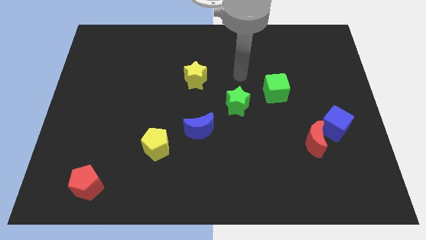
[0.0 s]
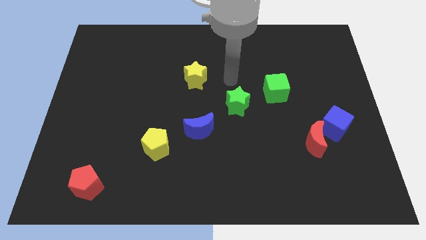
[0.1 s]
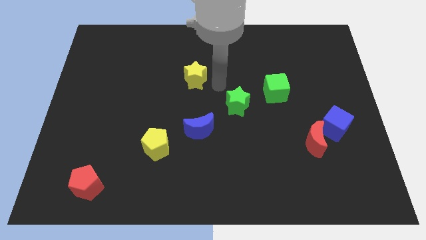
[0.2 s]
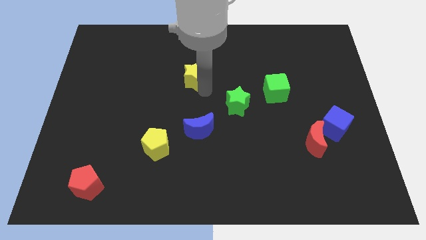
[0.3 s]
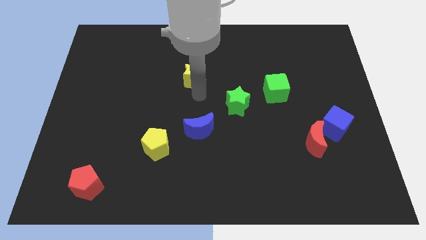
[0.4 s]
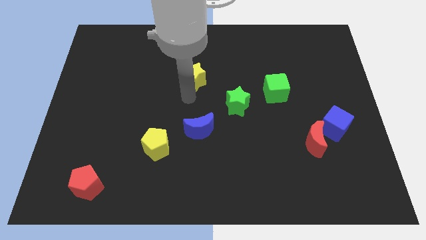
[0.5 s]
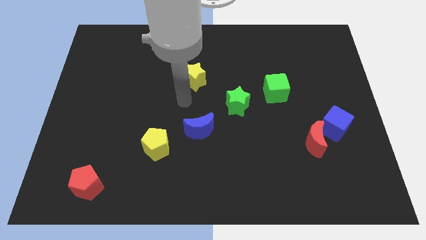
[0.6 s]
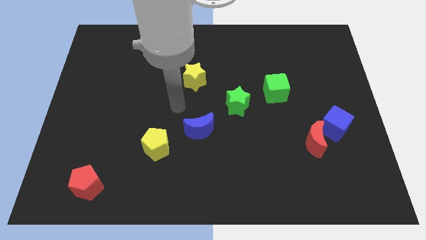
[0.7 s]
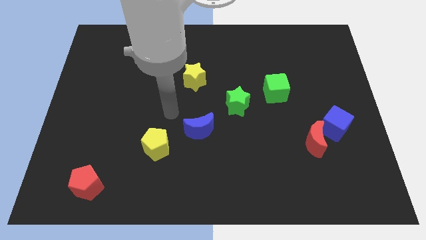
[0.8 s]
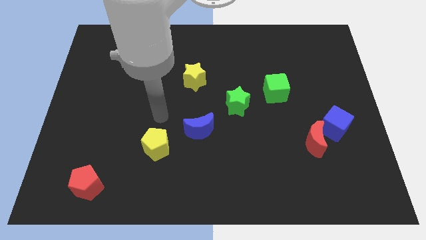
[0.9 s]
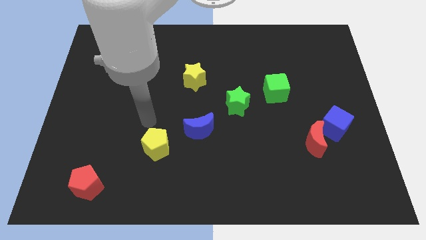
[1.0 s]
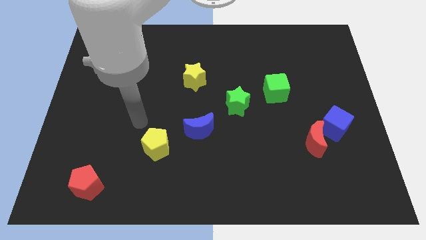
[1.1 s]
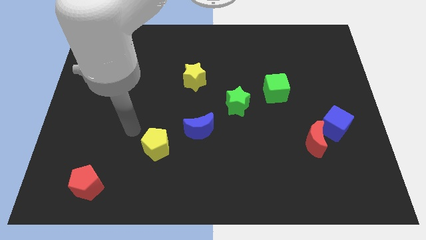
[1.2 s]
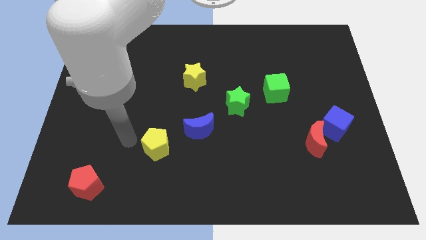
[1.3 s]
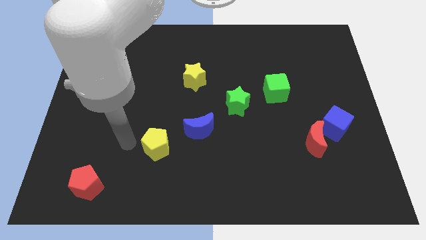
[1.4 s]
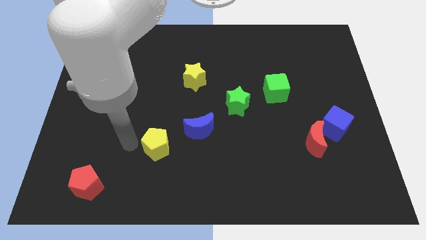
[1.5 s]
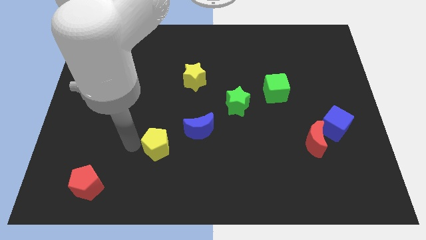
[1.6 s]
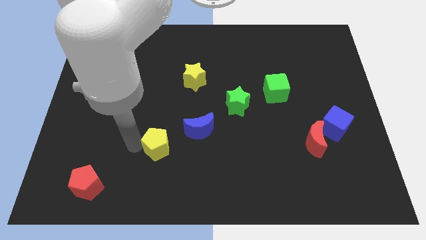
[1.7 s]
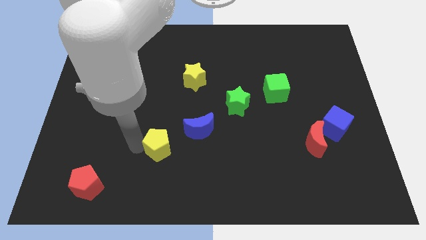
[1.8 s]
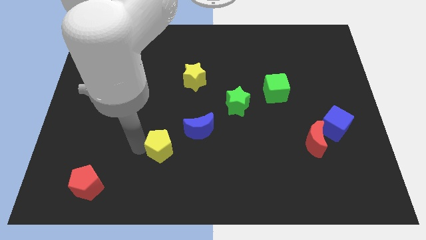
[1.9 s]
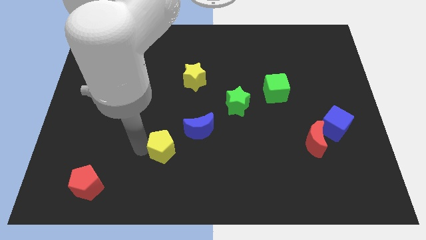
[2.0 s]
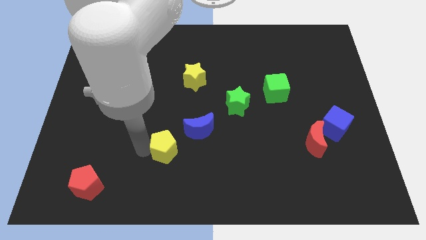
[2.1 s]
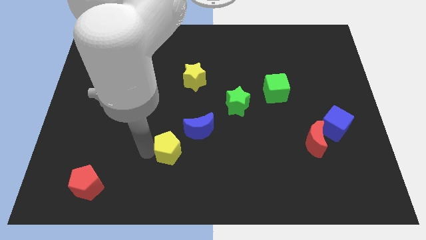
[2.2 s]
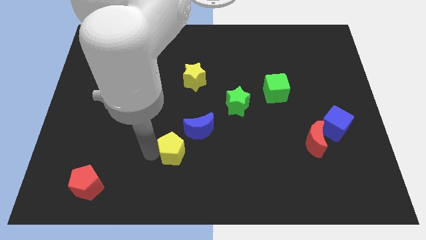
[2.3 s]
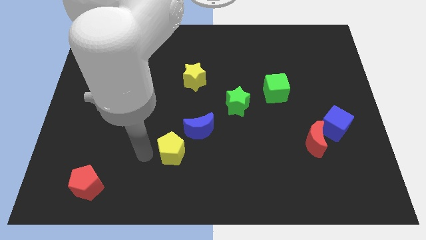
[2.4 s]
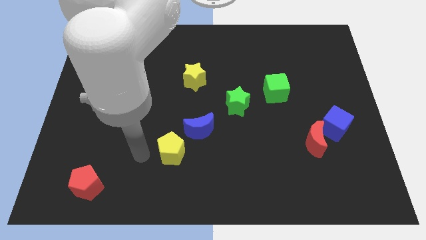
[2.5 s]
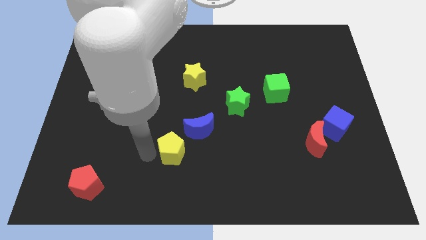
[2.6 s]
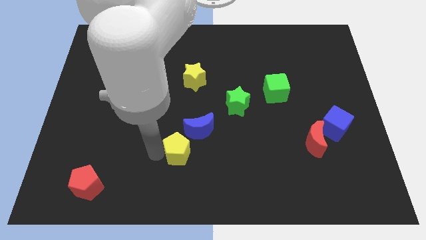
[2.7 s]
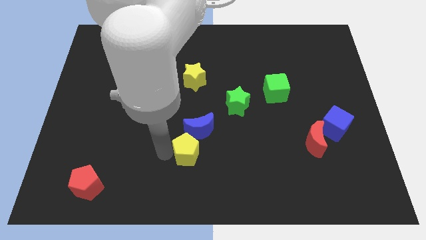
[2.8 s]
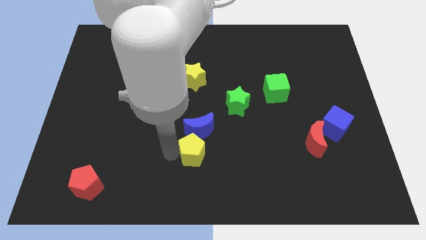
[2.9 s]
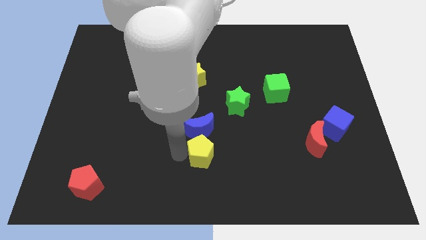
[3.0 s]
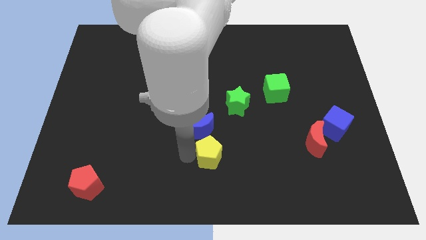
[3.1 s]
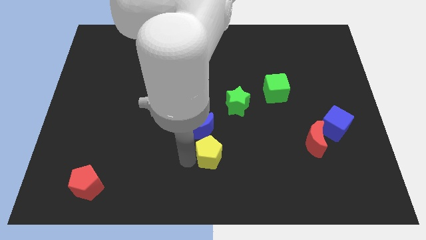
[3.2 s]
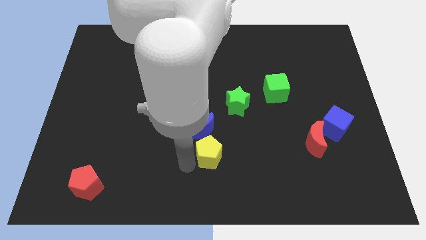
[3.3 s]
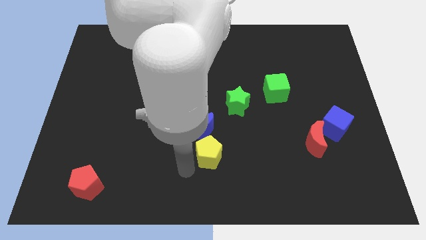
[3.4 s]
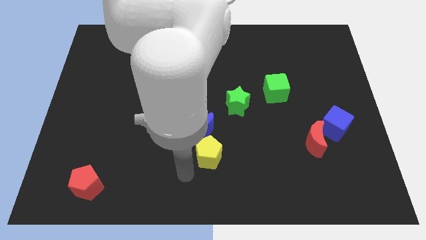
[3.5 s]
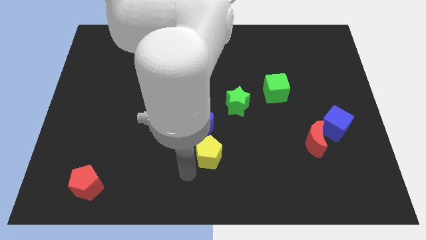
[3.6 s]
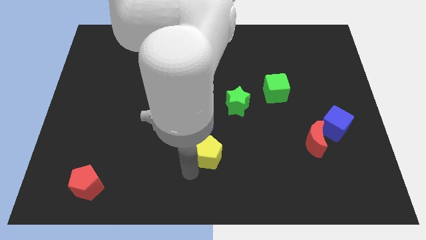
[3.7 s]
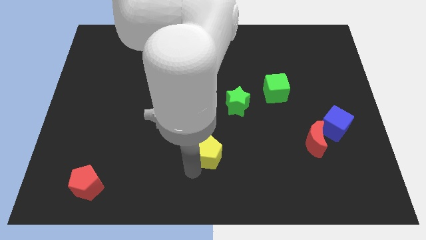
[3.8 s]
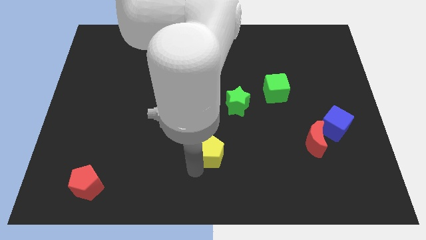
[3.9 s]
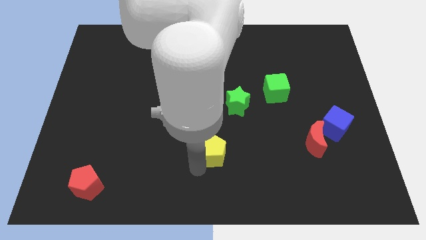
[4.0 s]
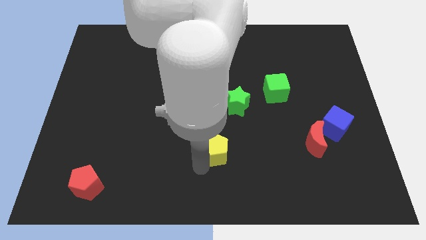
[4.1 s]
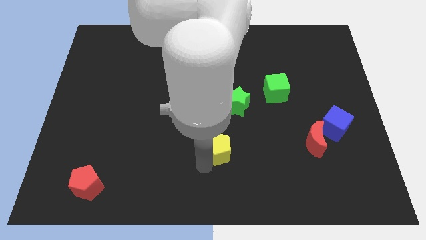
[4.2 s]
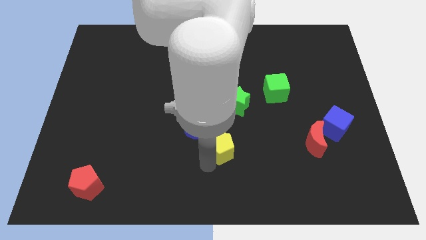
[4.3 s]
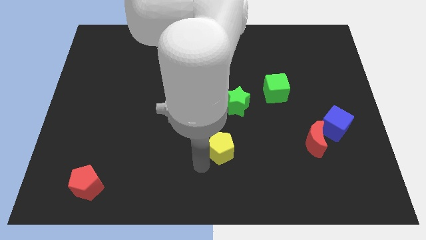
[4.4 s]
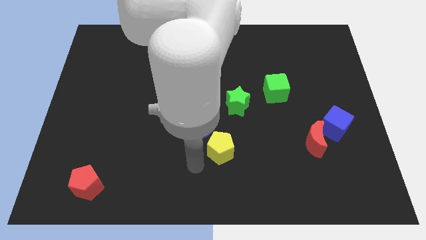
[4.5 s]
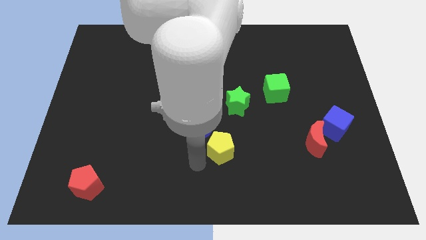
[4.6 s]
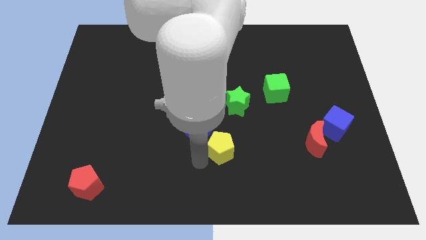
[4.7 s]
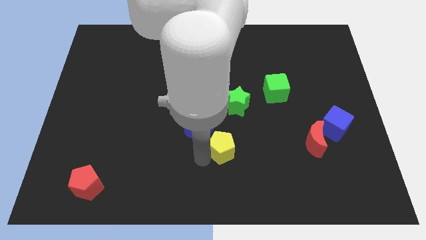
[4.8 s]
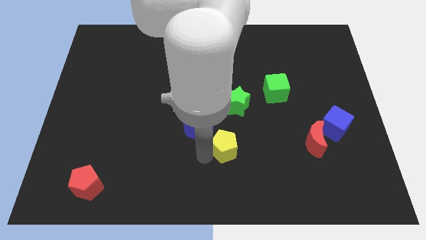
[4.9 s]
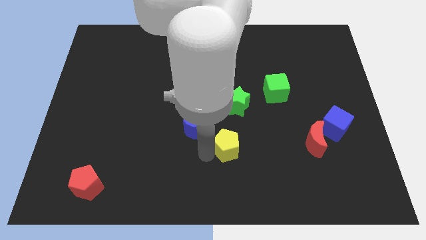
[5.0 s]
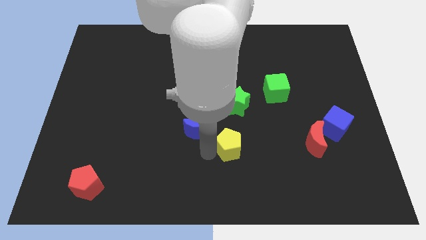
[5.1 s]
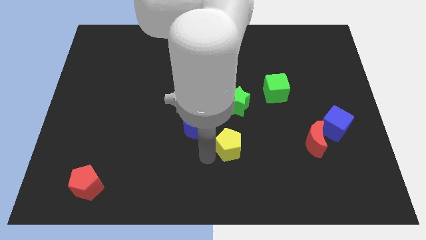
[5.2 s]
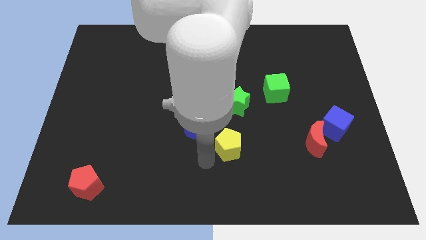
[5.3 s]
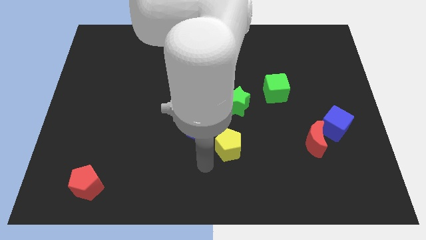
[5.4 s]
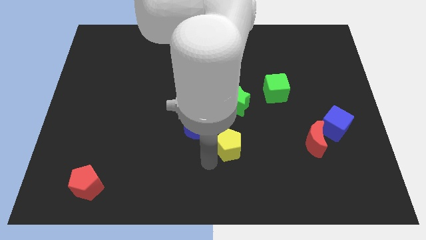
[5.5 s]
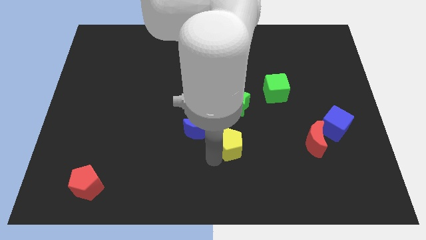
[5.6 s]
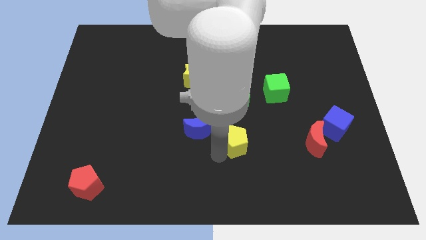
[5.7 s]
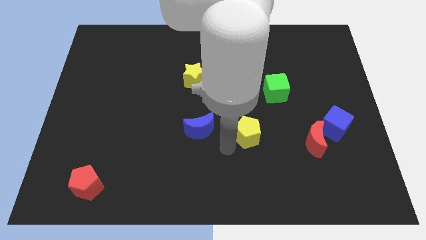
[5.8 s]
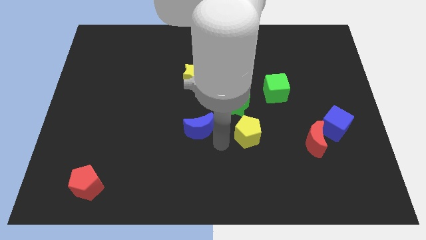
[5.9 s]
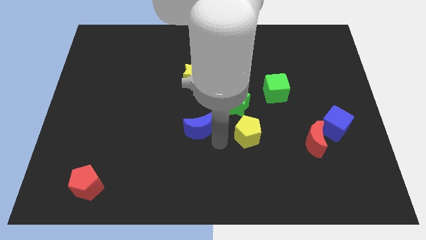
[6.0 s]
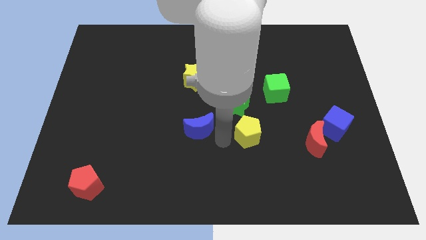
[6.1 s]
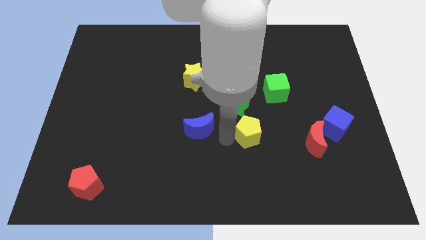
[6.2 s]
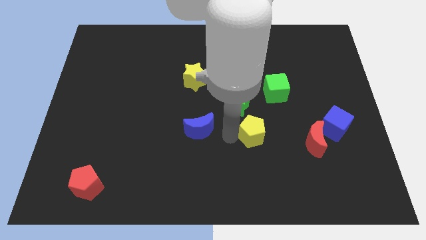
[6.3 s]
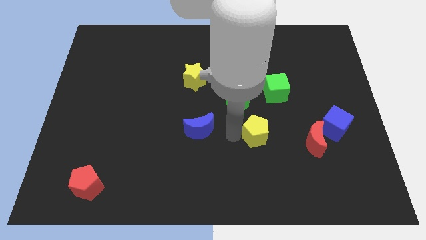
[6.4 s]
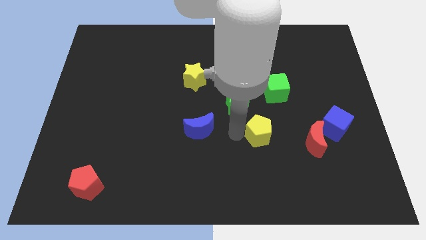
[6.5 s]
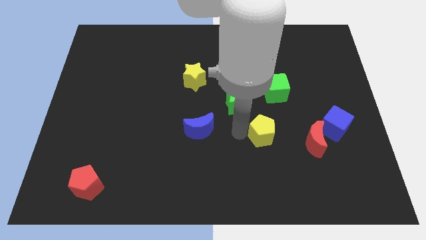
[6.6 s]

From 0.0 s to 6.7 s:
push the yellow pentagon below the green cube

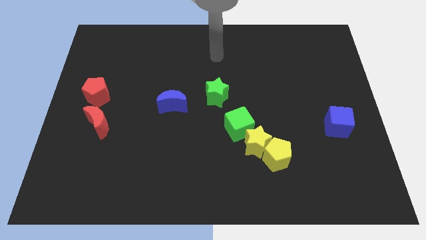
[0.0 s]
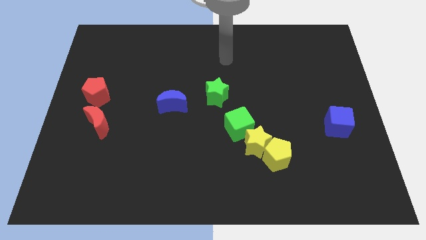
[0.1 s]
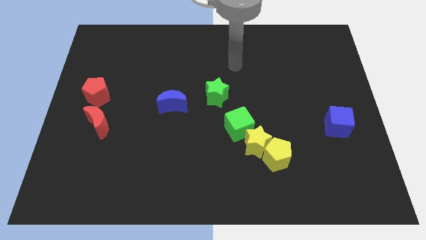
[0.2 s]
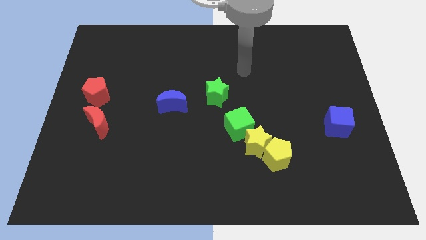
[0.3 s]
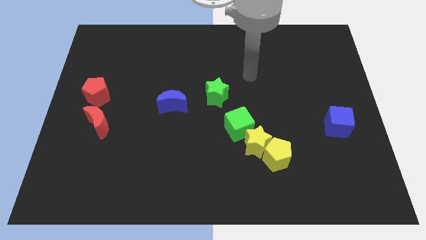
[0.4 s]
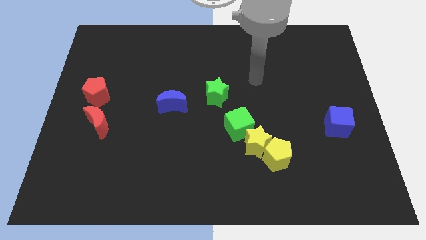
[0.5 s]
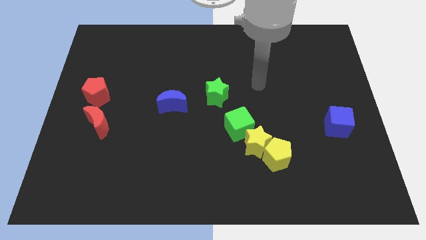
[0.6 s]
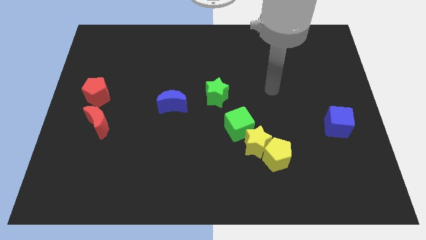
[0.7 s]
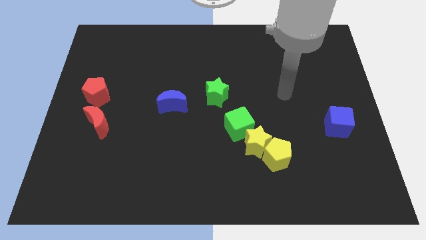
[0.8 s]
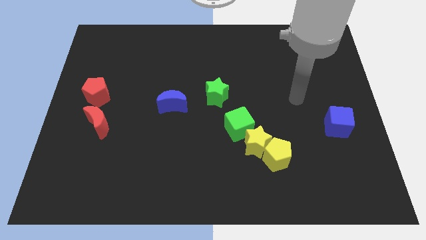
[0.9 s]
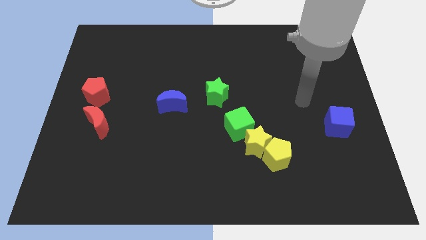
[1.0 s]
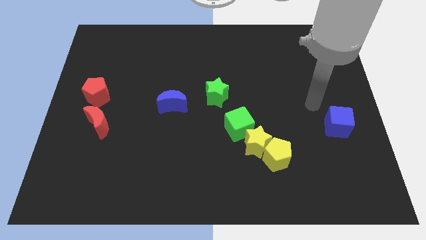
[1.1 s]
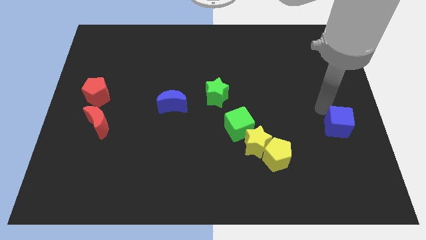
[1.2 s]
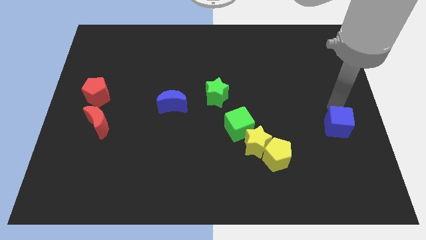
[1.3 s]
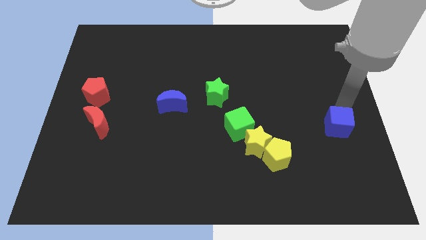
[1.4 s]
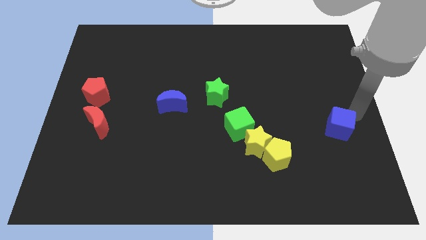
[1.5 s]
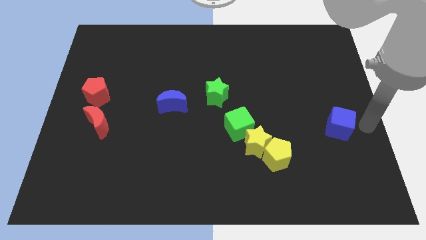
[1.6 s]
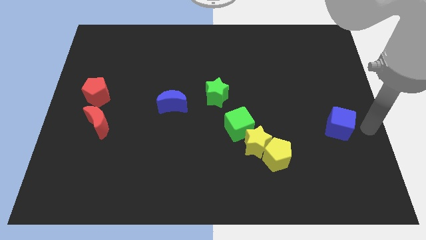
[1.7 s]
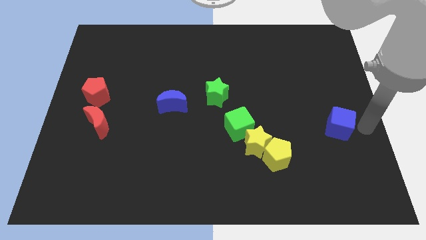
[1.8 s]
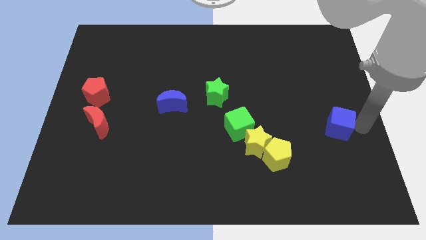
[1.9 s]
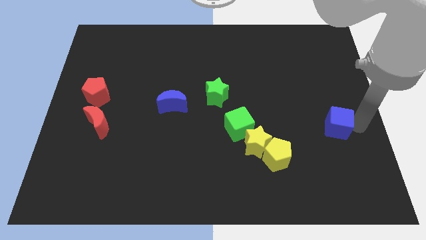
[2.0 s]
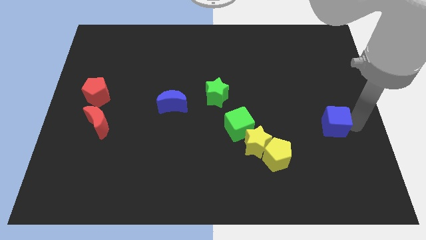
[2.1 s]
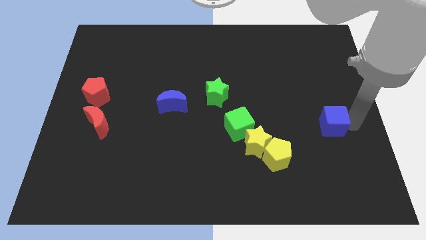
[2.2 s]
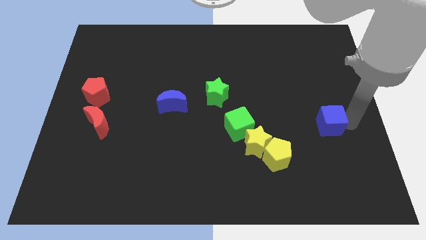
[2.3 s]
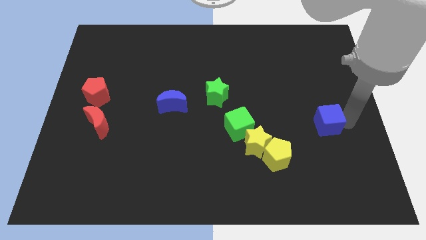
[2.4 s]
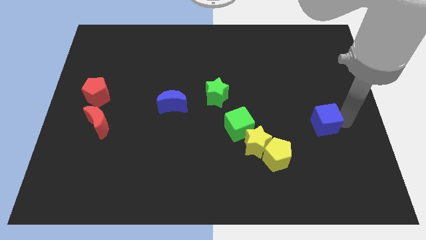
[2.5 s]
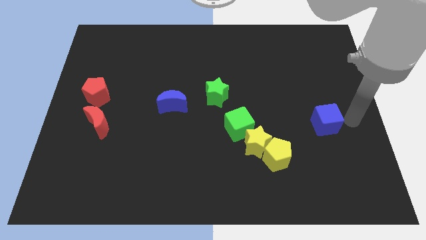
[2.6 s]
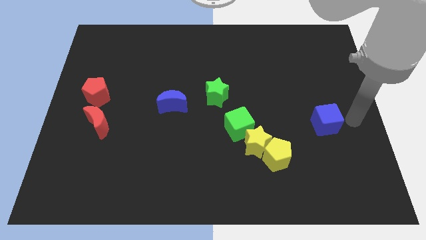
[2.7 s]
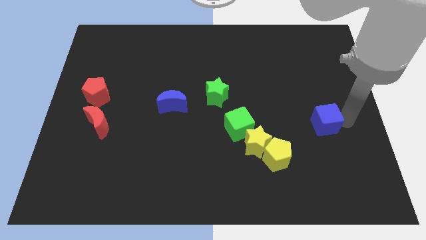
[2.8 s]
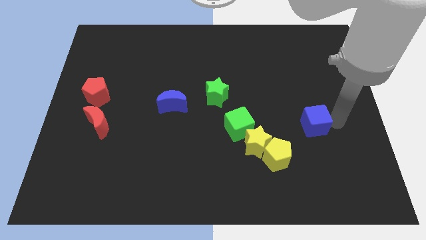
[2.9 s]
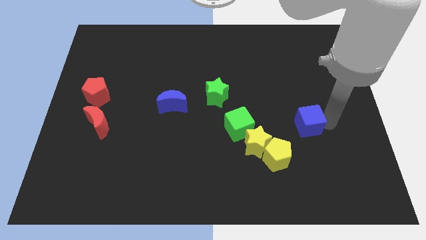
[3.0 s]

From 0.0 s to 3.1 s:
slide the blue cube right of the green cube
